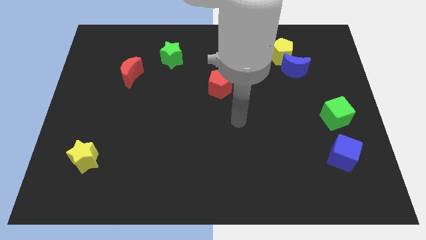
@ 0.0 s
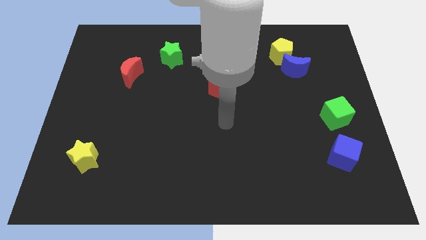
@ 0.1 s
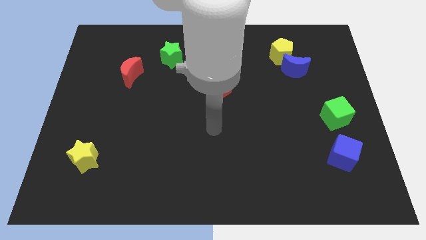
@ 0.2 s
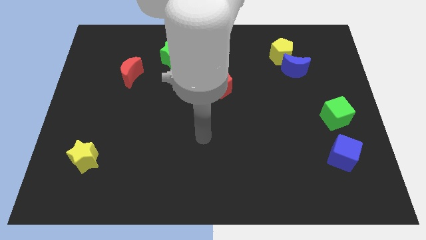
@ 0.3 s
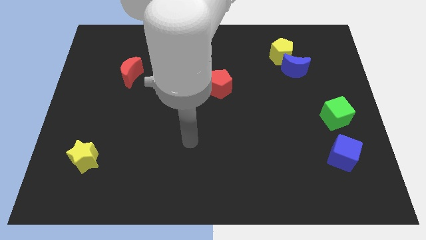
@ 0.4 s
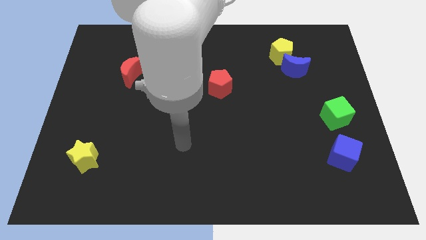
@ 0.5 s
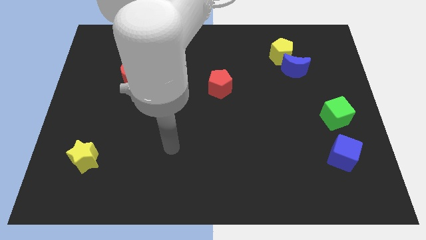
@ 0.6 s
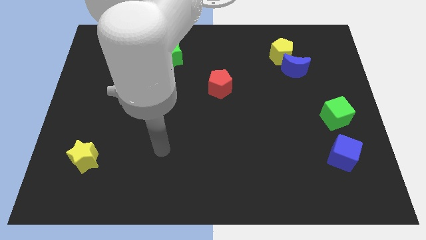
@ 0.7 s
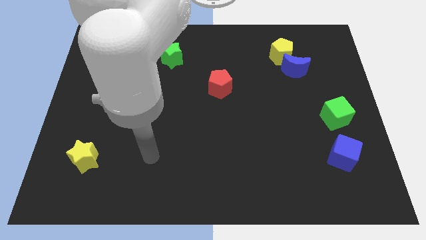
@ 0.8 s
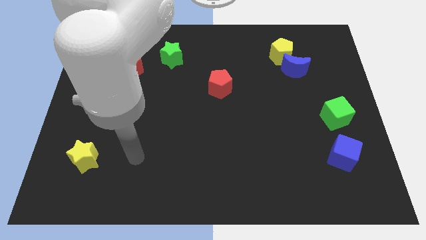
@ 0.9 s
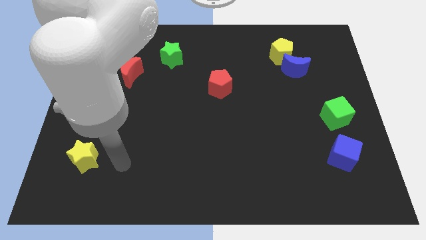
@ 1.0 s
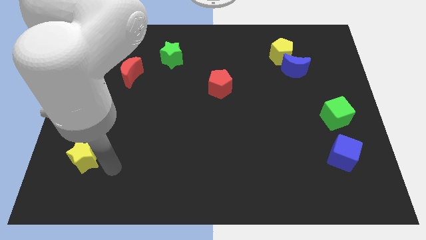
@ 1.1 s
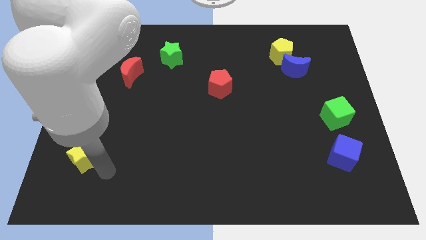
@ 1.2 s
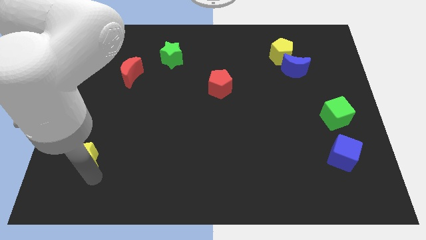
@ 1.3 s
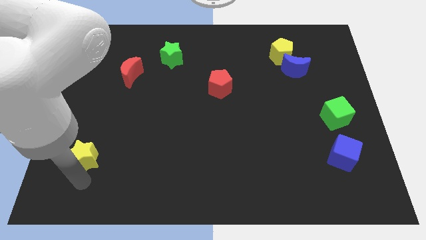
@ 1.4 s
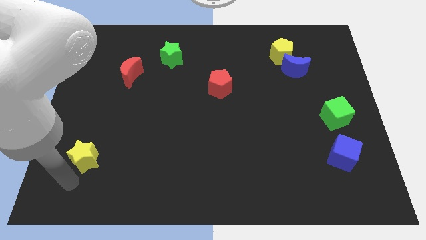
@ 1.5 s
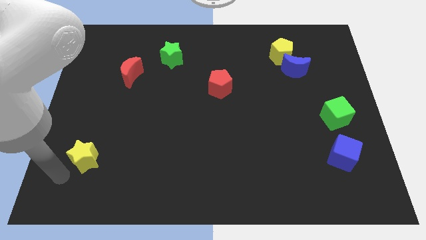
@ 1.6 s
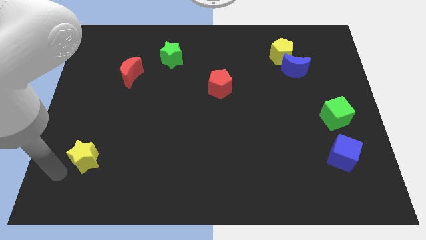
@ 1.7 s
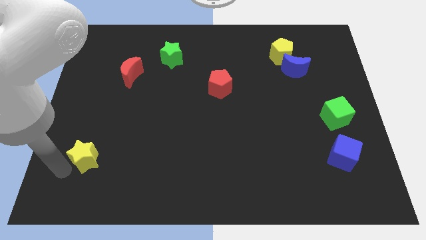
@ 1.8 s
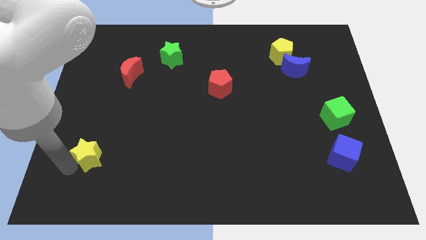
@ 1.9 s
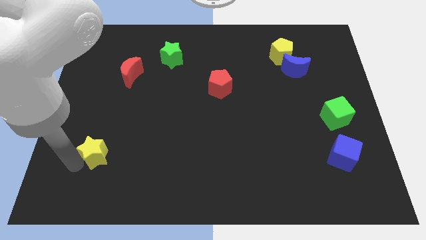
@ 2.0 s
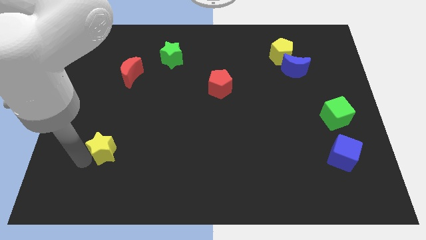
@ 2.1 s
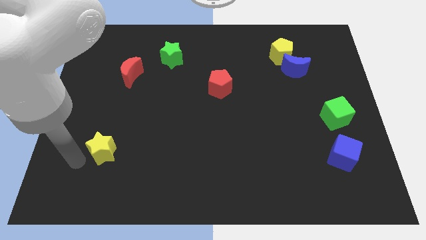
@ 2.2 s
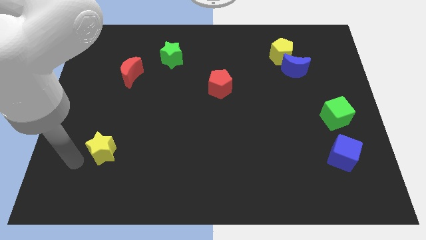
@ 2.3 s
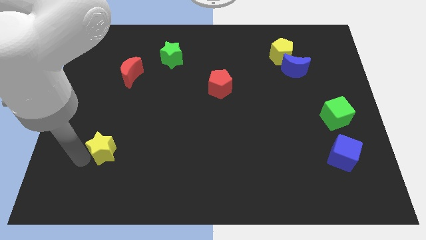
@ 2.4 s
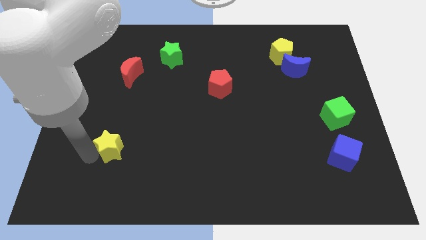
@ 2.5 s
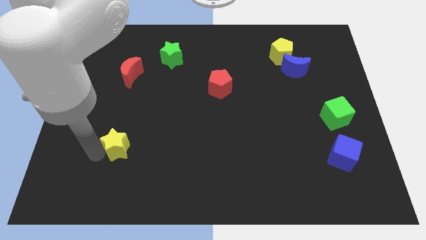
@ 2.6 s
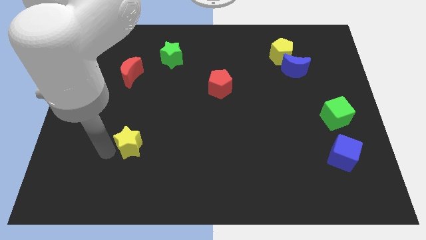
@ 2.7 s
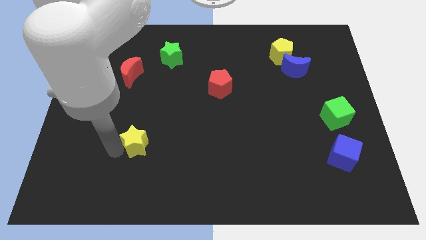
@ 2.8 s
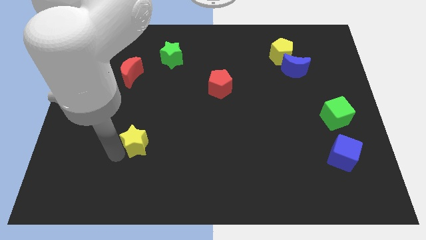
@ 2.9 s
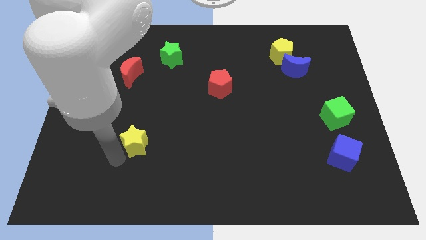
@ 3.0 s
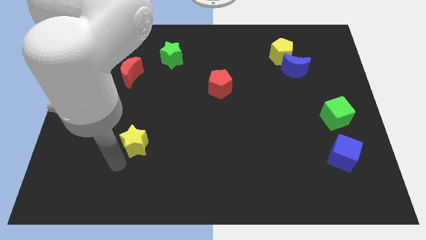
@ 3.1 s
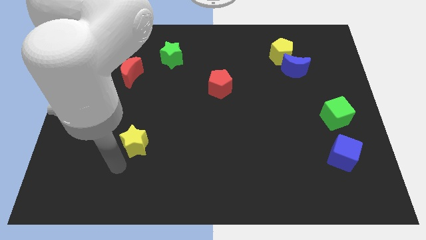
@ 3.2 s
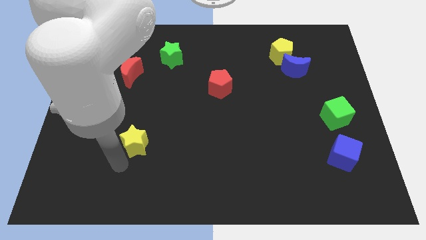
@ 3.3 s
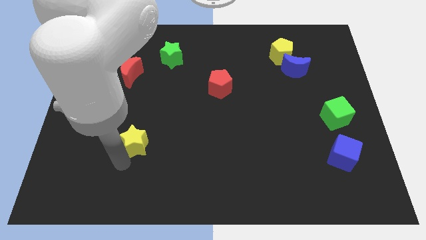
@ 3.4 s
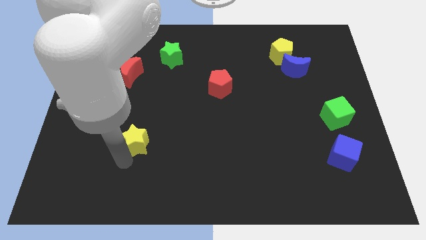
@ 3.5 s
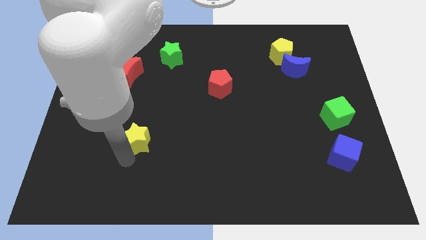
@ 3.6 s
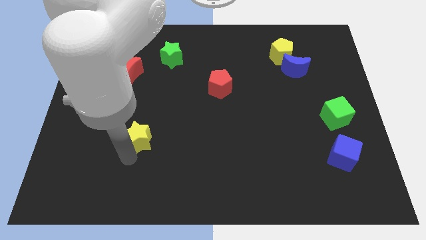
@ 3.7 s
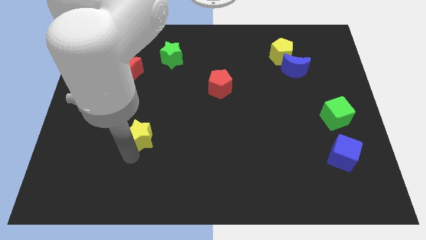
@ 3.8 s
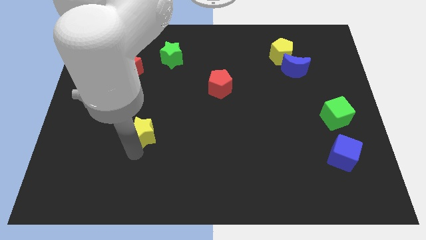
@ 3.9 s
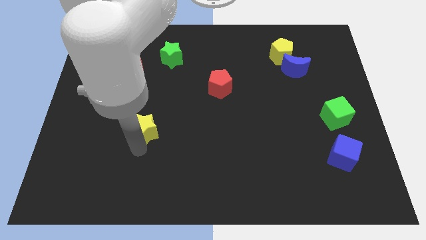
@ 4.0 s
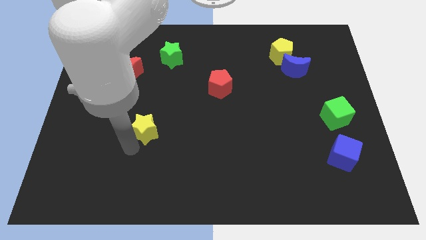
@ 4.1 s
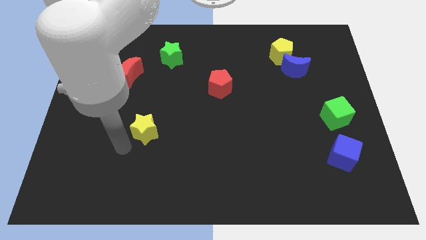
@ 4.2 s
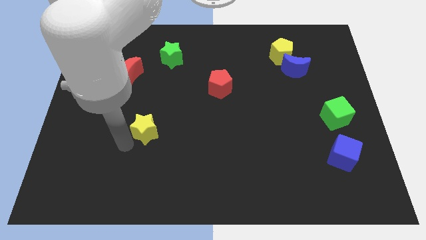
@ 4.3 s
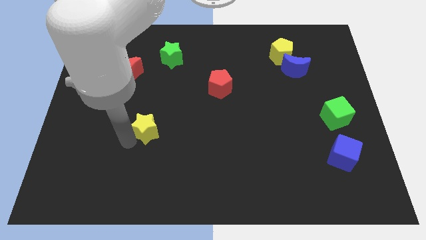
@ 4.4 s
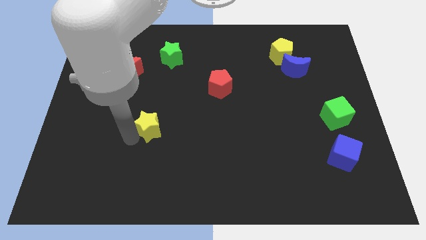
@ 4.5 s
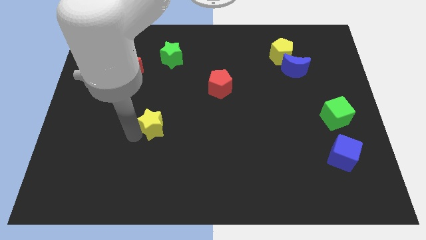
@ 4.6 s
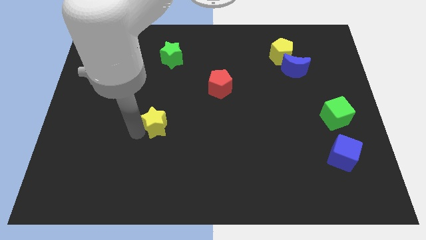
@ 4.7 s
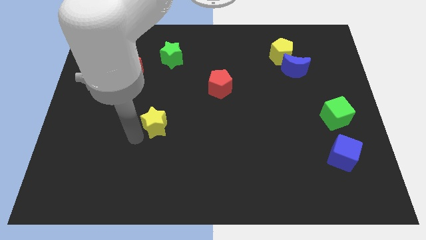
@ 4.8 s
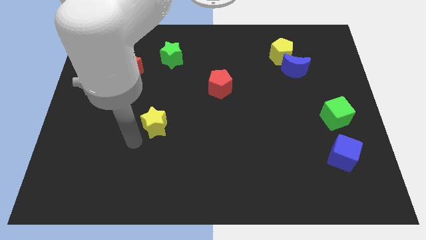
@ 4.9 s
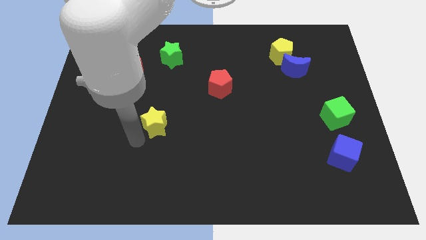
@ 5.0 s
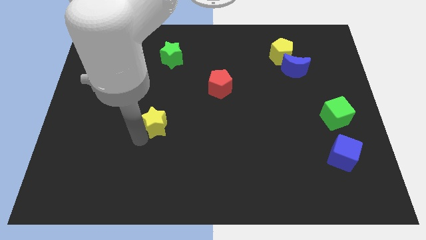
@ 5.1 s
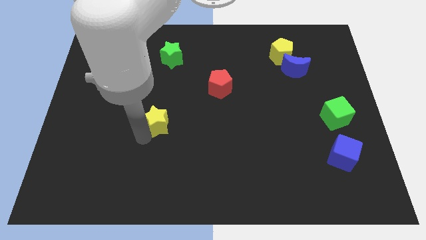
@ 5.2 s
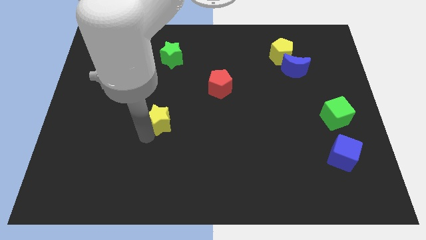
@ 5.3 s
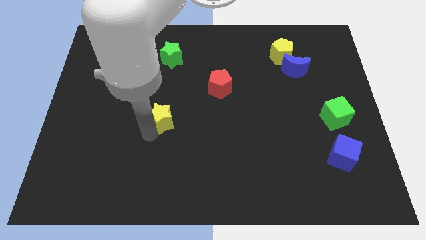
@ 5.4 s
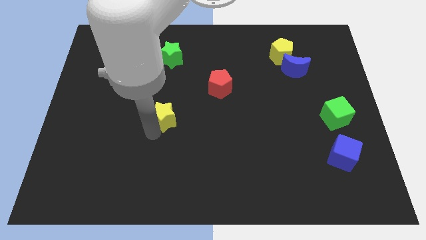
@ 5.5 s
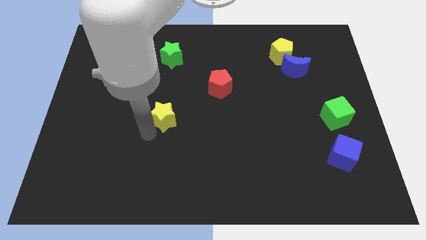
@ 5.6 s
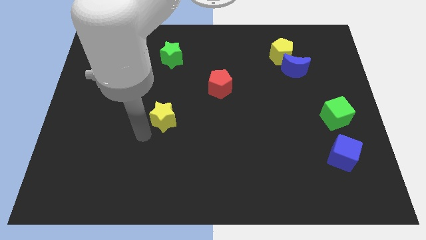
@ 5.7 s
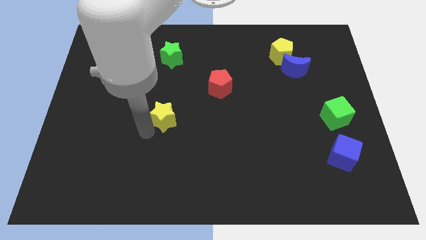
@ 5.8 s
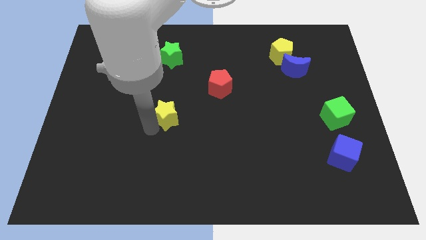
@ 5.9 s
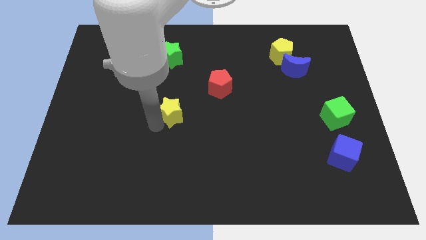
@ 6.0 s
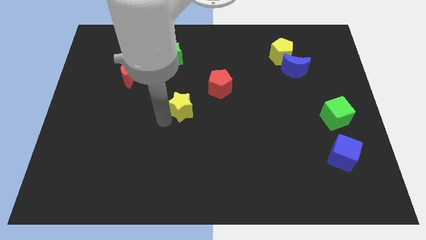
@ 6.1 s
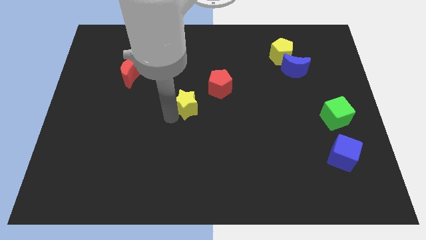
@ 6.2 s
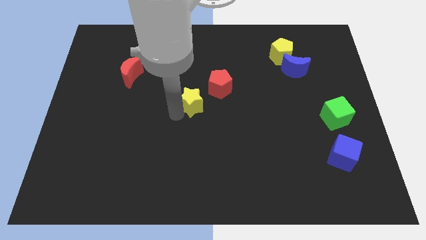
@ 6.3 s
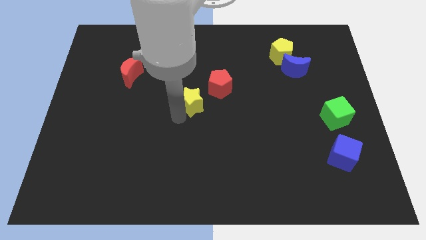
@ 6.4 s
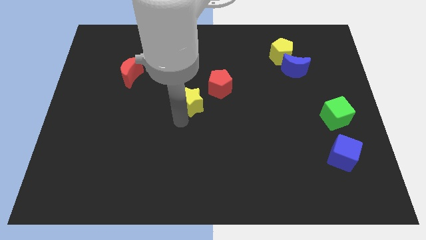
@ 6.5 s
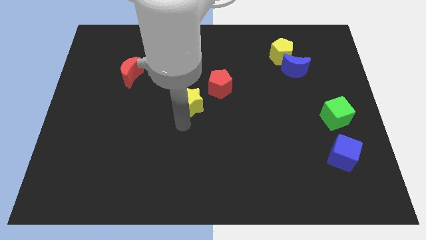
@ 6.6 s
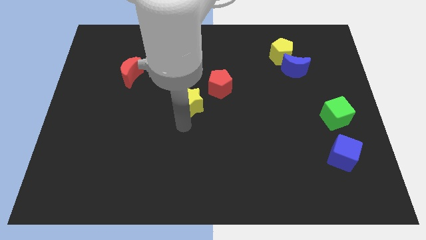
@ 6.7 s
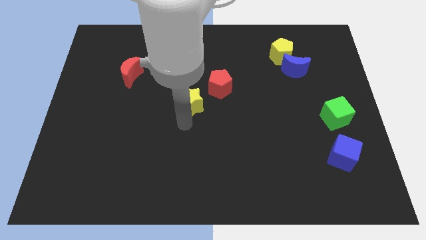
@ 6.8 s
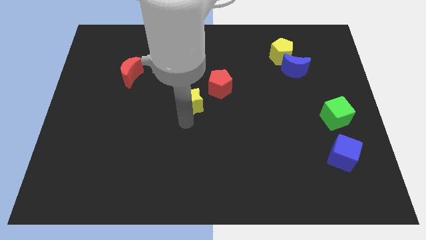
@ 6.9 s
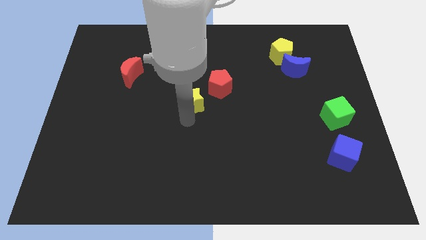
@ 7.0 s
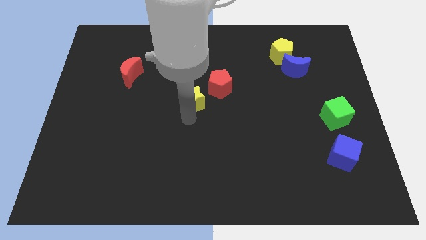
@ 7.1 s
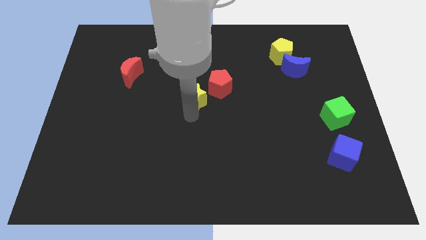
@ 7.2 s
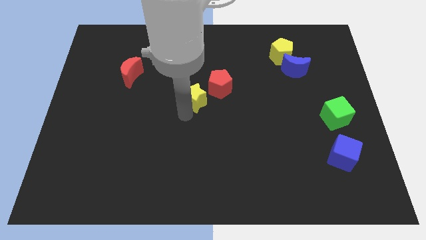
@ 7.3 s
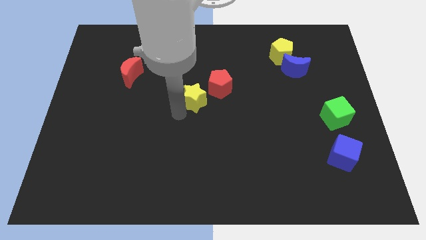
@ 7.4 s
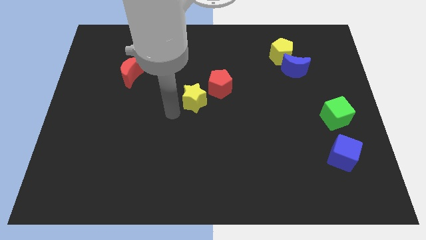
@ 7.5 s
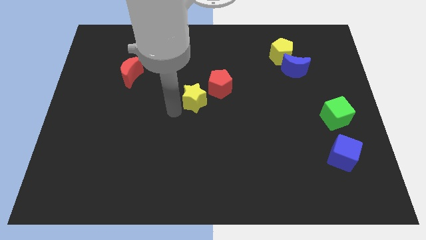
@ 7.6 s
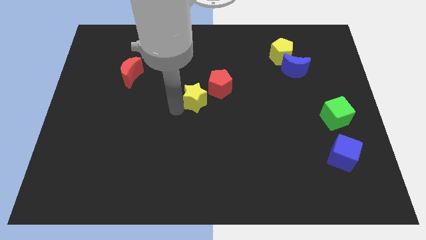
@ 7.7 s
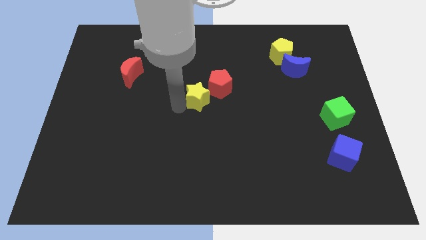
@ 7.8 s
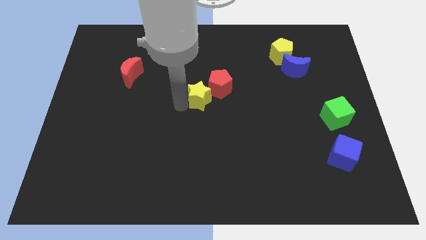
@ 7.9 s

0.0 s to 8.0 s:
move the yellow star towards the red pentagon
